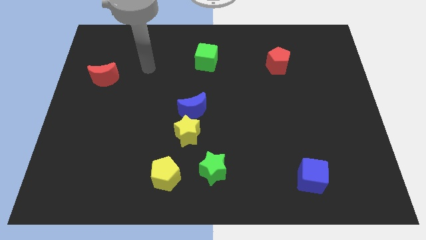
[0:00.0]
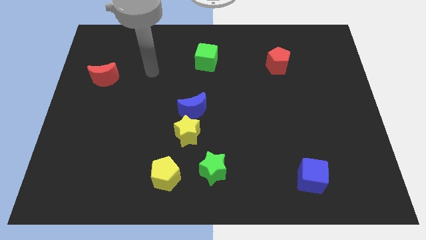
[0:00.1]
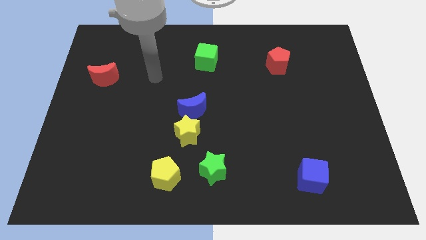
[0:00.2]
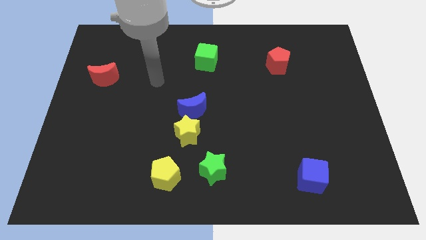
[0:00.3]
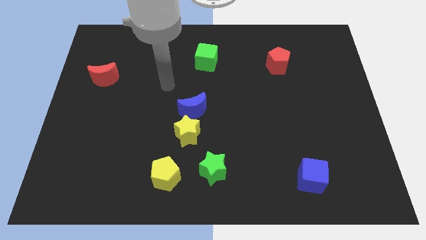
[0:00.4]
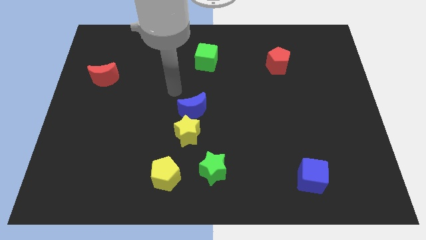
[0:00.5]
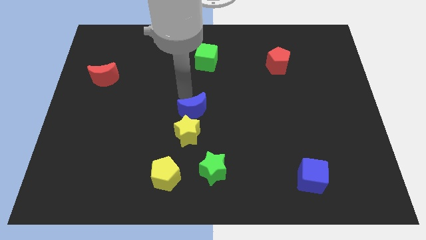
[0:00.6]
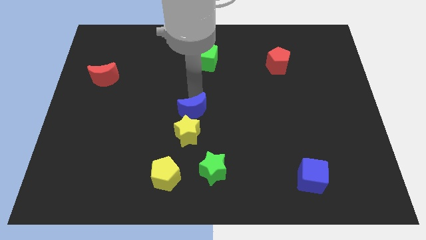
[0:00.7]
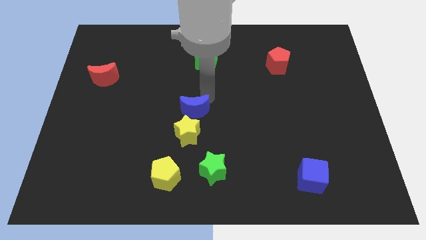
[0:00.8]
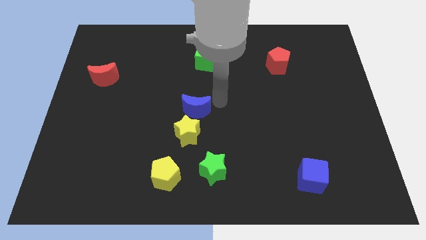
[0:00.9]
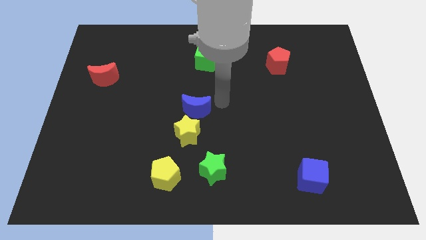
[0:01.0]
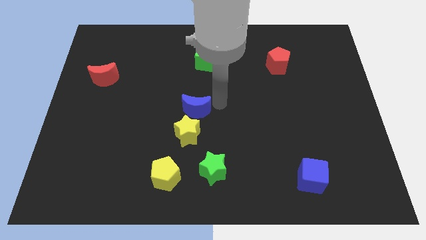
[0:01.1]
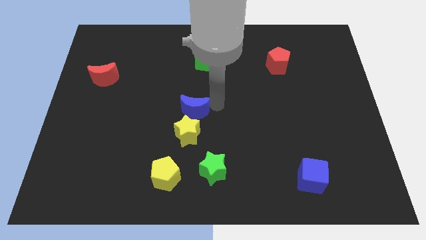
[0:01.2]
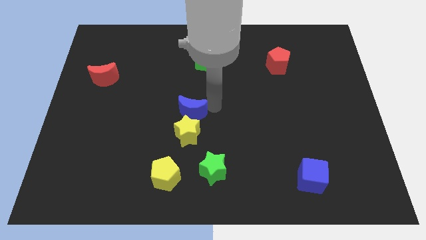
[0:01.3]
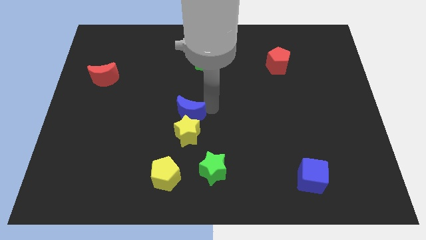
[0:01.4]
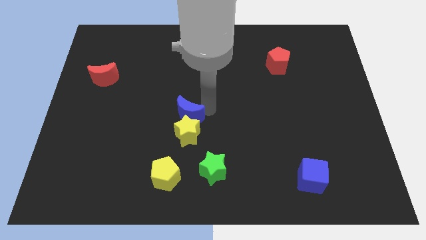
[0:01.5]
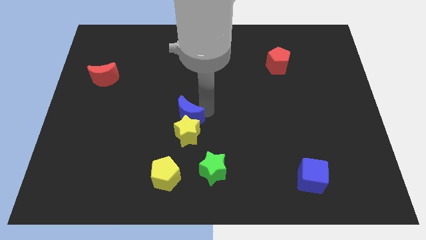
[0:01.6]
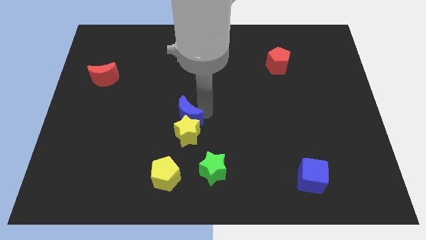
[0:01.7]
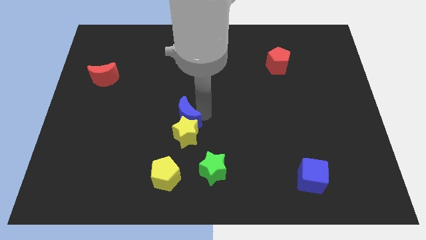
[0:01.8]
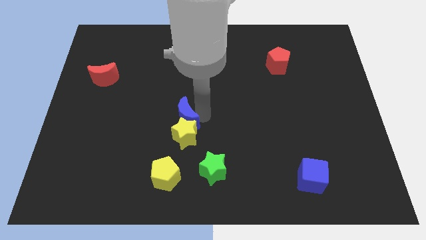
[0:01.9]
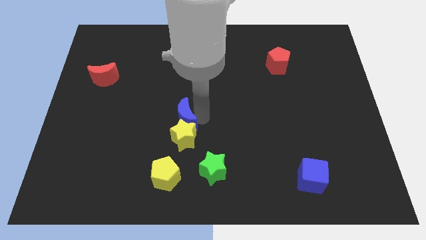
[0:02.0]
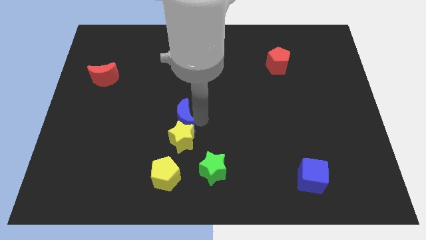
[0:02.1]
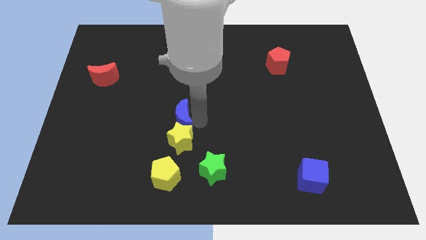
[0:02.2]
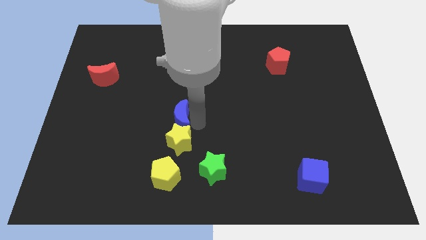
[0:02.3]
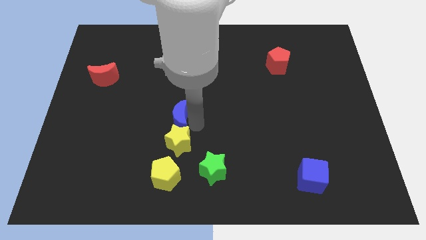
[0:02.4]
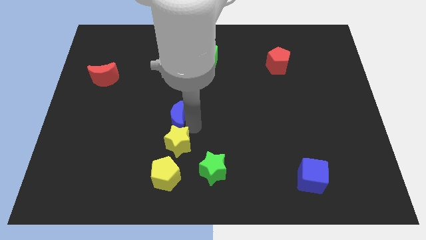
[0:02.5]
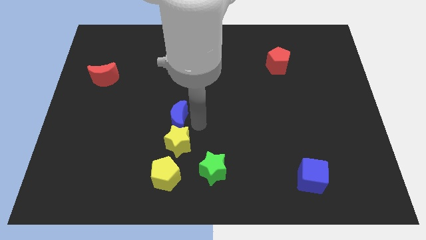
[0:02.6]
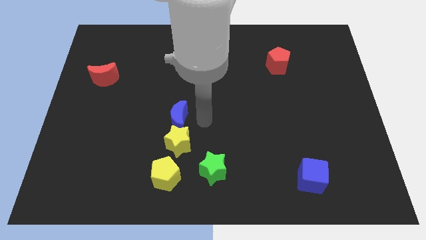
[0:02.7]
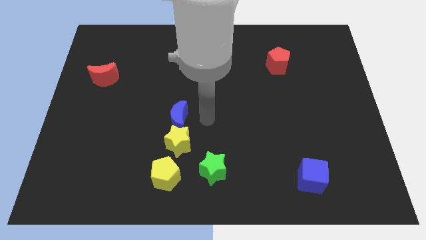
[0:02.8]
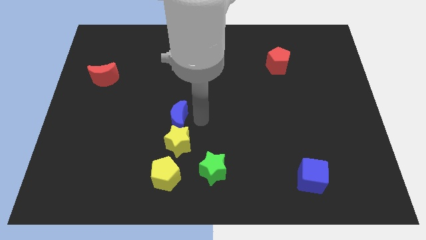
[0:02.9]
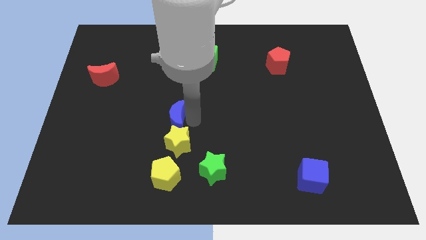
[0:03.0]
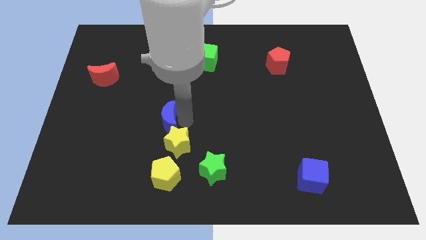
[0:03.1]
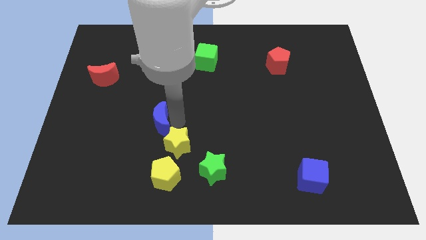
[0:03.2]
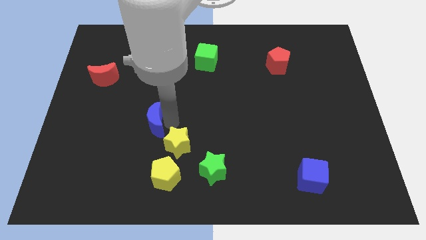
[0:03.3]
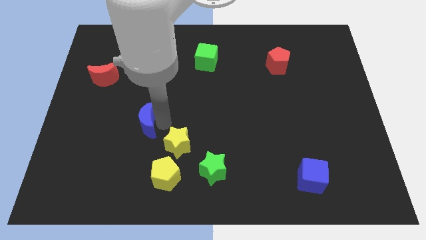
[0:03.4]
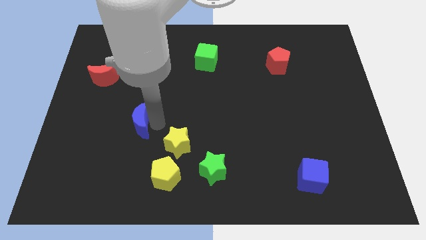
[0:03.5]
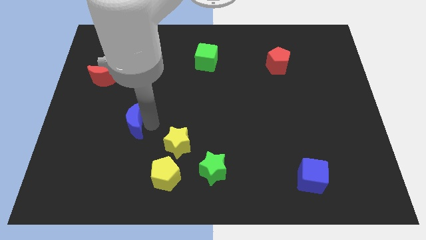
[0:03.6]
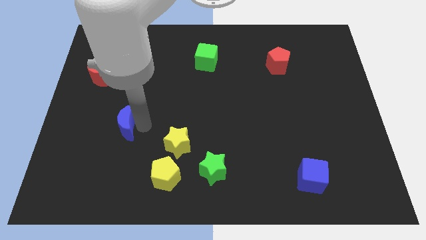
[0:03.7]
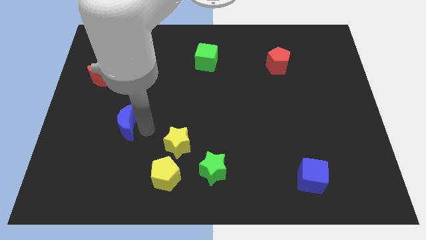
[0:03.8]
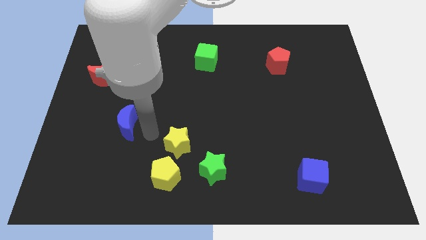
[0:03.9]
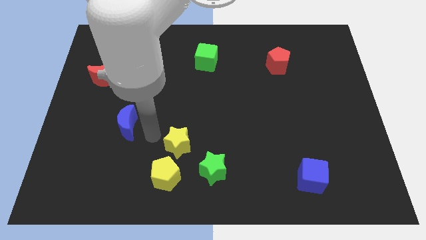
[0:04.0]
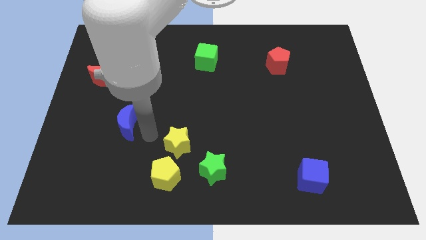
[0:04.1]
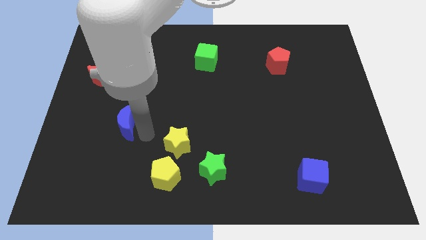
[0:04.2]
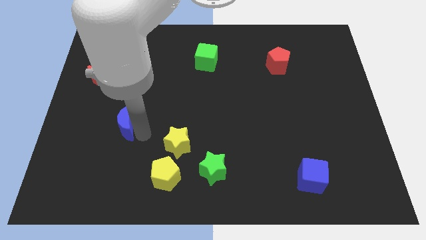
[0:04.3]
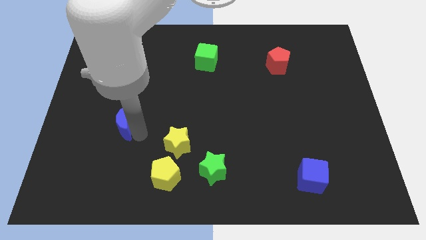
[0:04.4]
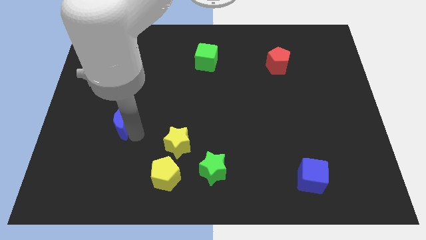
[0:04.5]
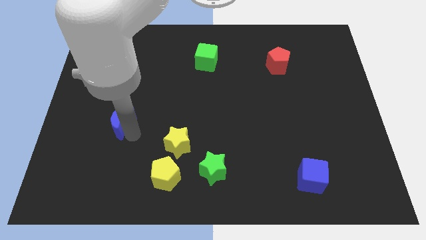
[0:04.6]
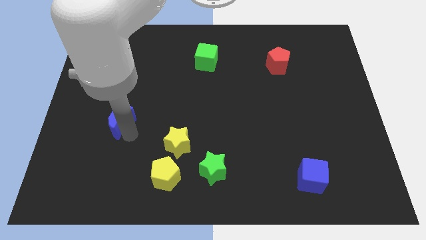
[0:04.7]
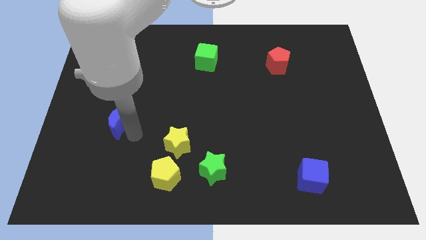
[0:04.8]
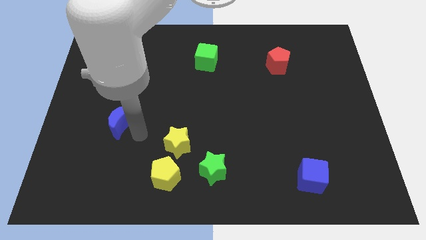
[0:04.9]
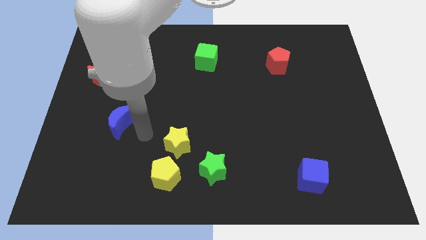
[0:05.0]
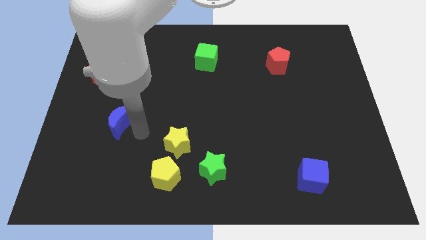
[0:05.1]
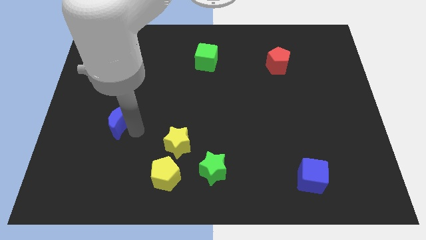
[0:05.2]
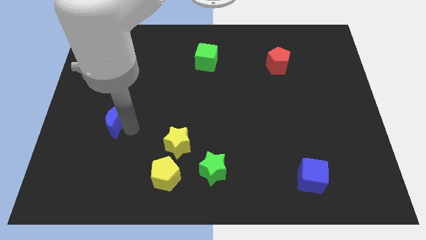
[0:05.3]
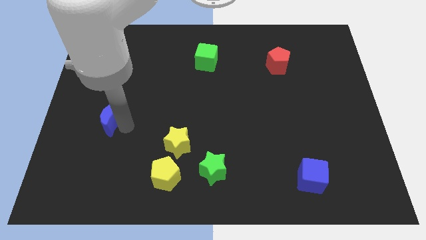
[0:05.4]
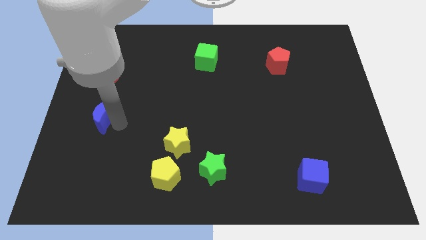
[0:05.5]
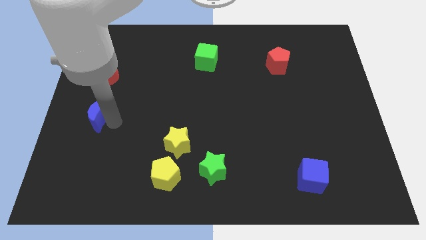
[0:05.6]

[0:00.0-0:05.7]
push the blue moon to the center left
